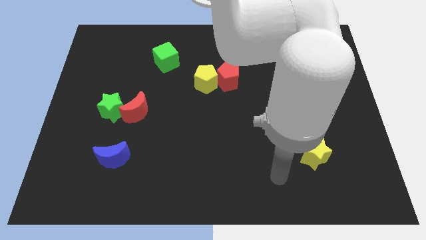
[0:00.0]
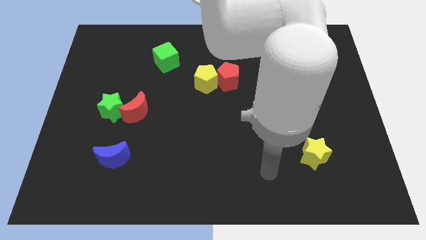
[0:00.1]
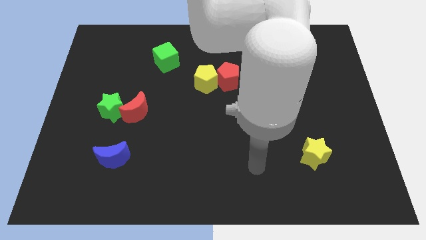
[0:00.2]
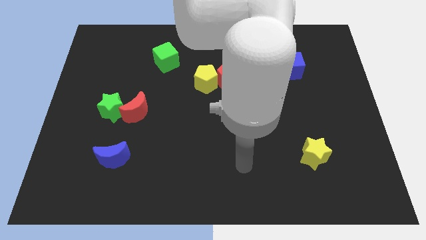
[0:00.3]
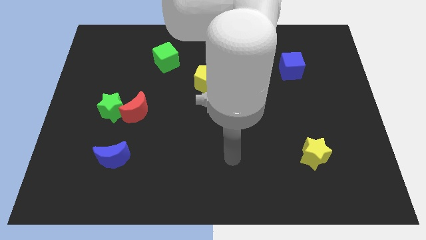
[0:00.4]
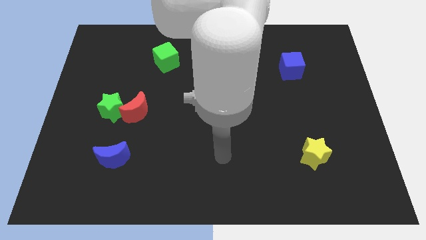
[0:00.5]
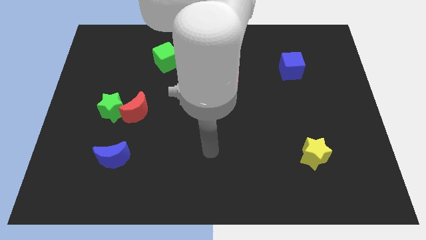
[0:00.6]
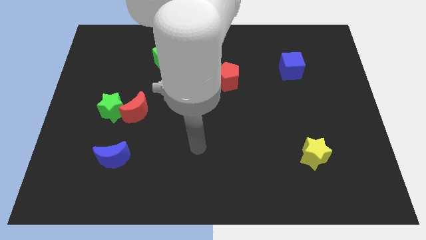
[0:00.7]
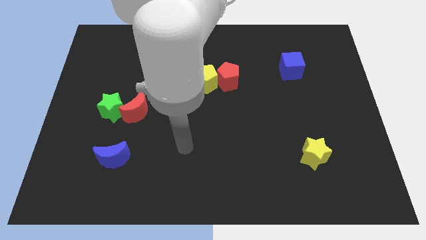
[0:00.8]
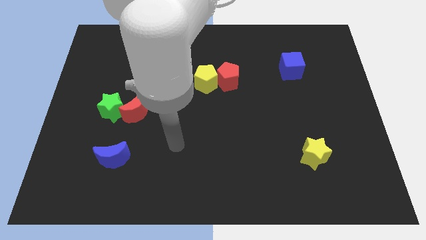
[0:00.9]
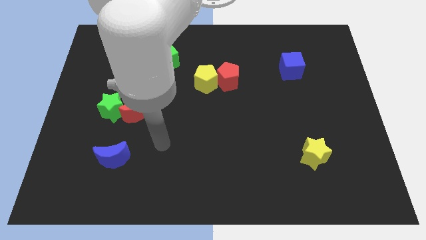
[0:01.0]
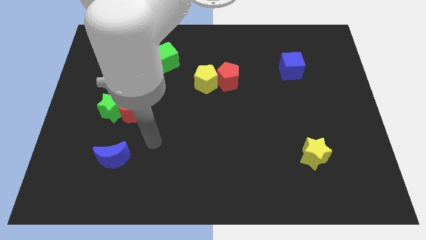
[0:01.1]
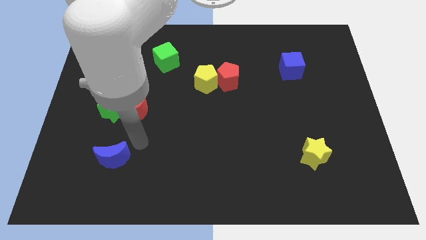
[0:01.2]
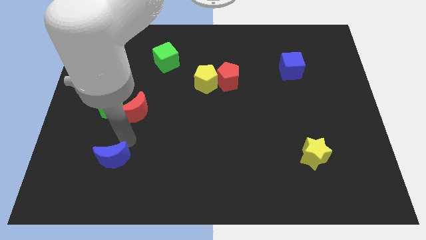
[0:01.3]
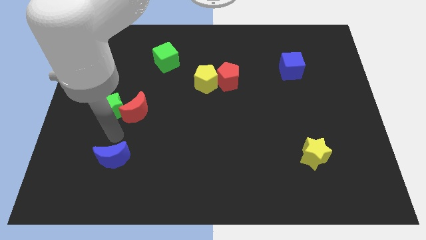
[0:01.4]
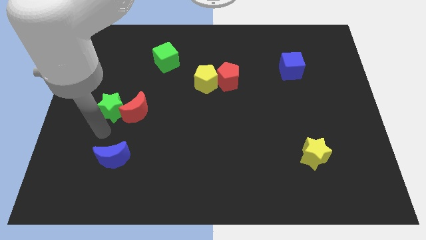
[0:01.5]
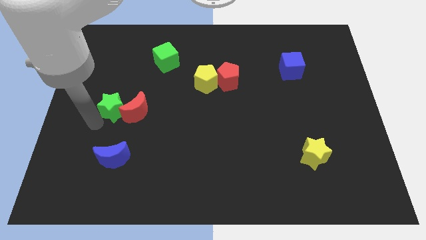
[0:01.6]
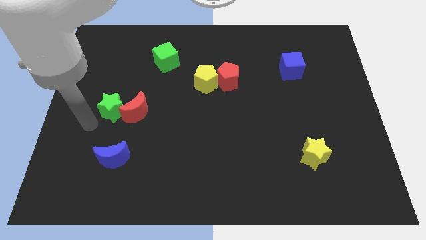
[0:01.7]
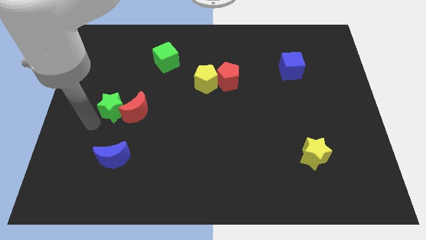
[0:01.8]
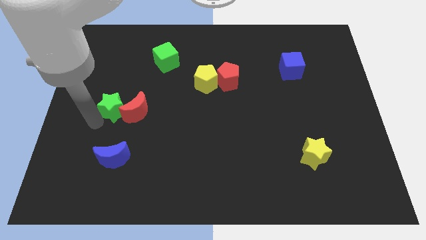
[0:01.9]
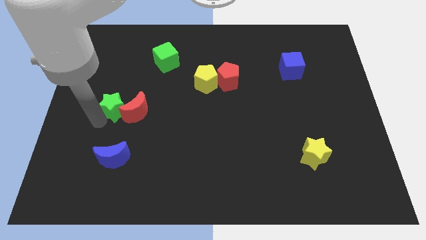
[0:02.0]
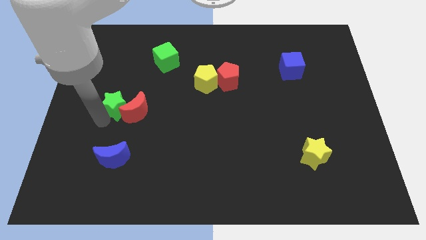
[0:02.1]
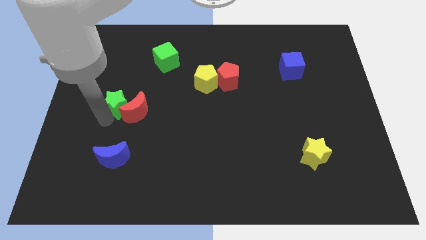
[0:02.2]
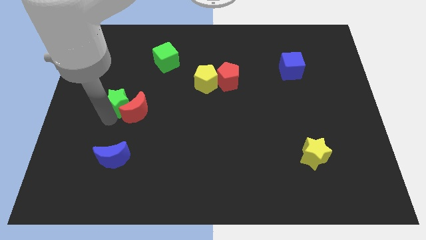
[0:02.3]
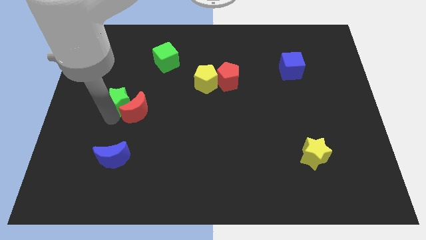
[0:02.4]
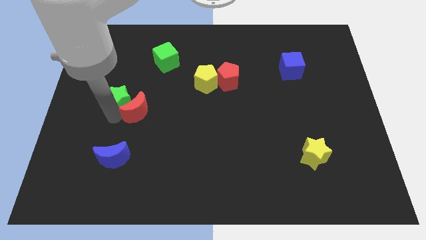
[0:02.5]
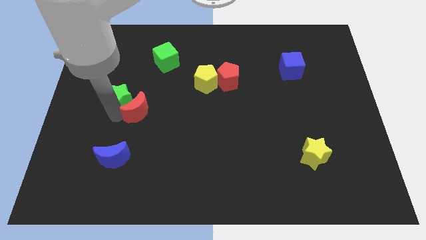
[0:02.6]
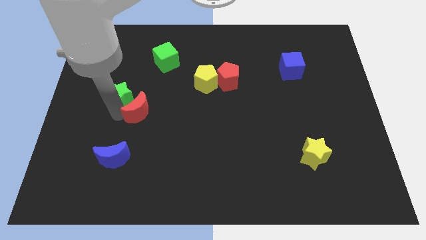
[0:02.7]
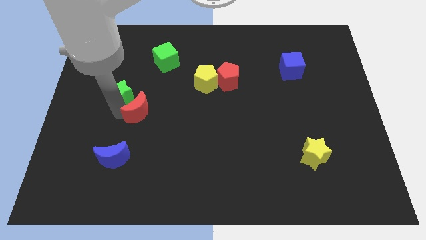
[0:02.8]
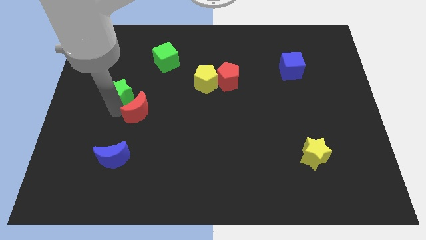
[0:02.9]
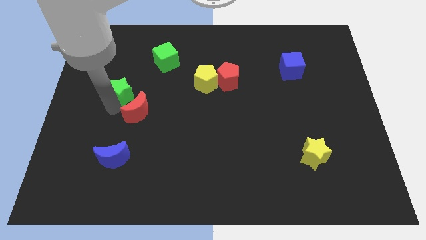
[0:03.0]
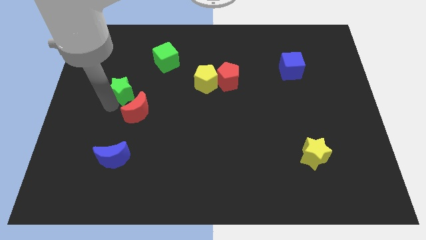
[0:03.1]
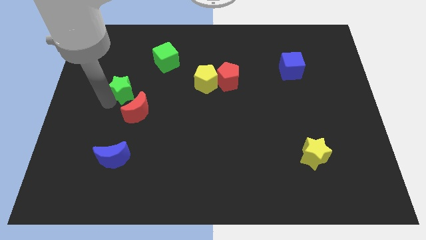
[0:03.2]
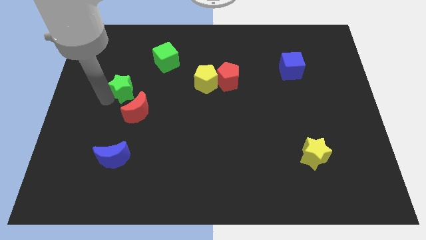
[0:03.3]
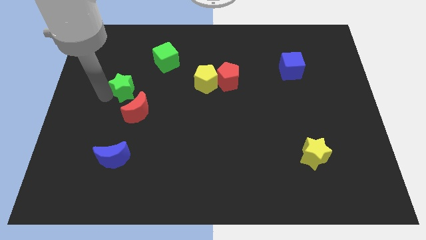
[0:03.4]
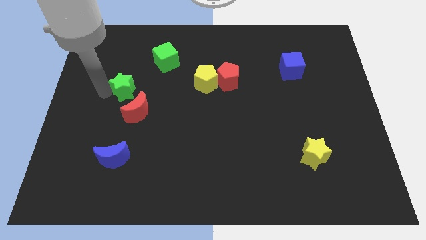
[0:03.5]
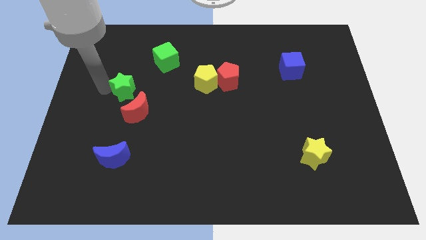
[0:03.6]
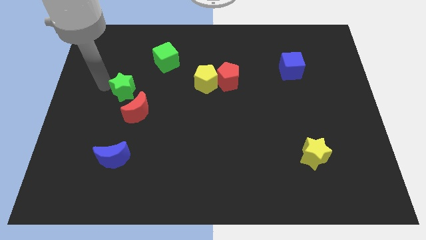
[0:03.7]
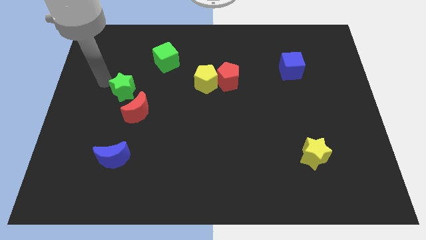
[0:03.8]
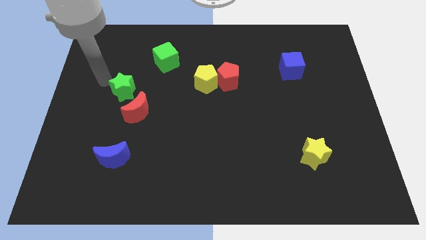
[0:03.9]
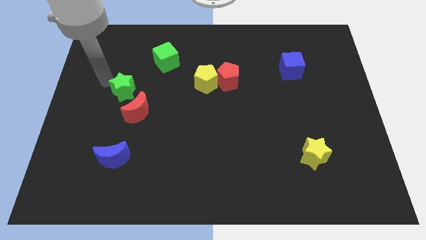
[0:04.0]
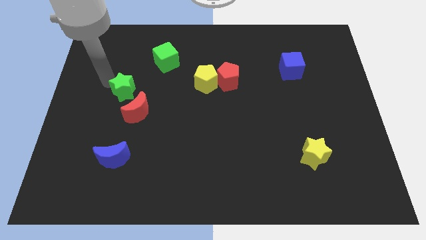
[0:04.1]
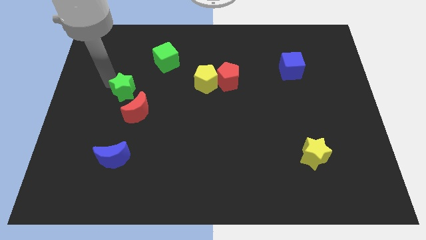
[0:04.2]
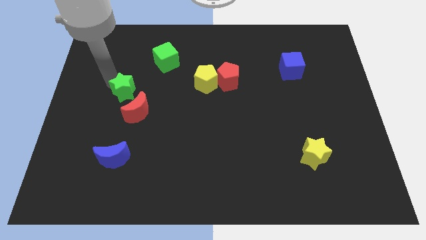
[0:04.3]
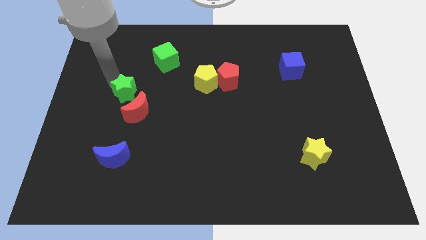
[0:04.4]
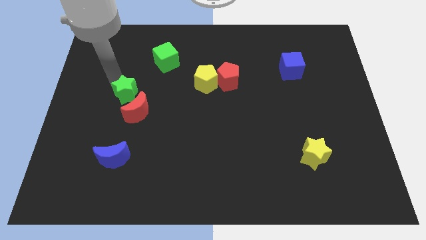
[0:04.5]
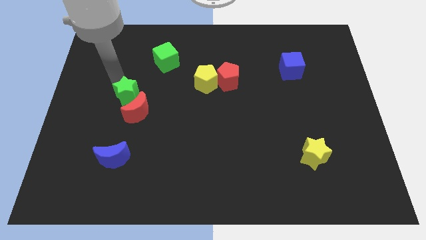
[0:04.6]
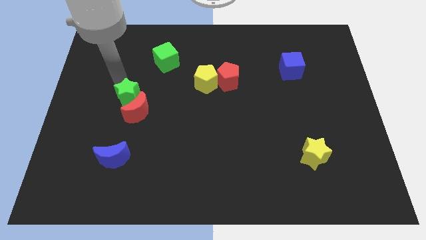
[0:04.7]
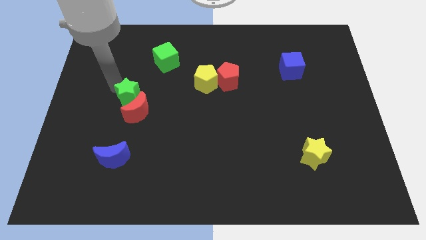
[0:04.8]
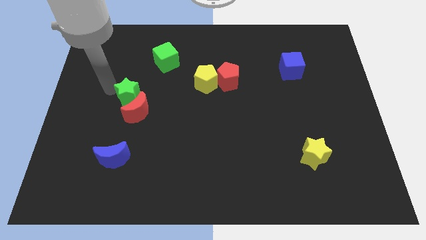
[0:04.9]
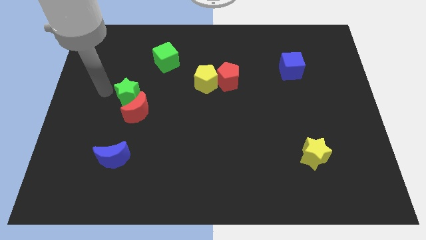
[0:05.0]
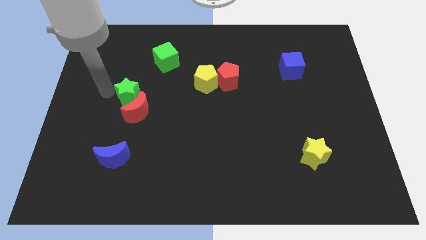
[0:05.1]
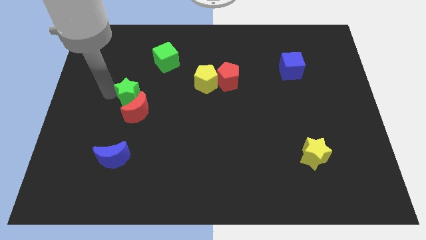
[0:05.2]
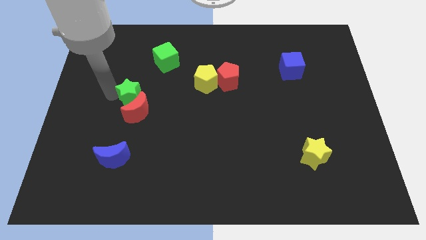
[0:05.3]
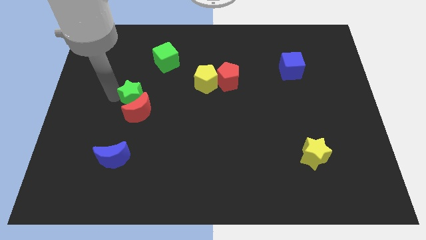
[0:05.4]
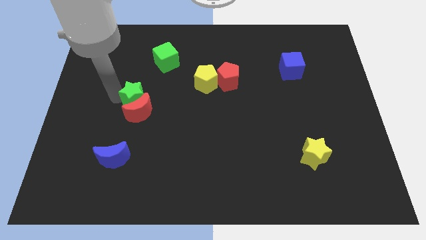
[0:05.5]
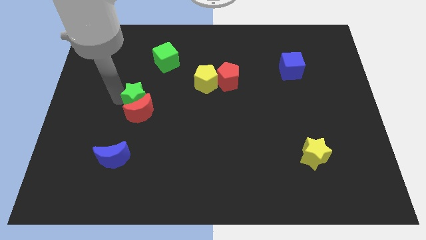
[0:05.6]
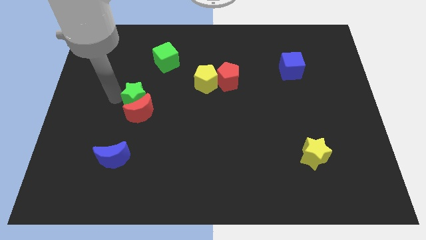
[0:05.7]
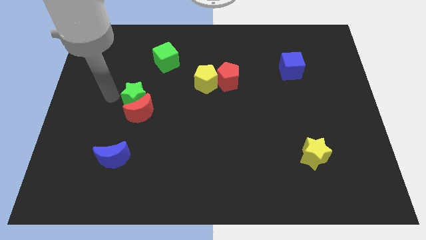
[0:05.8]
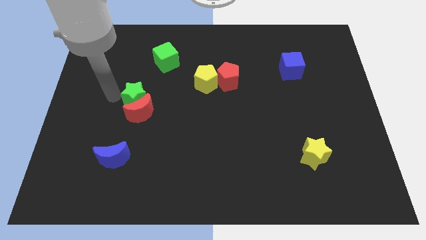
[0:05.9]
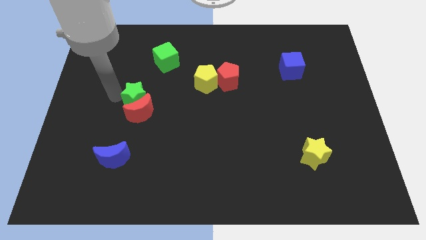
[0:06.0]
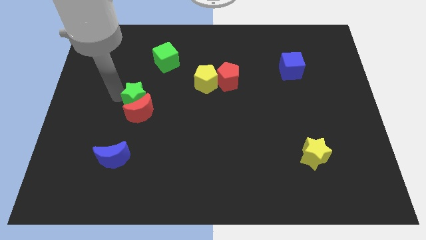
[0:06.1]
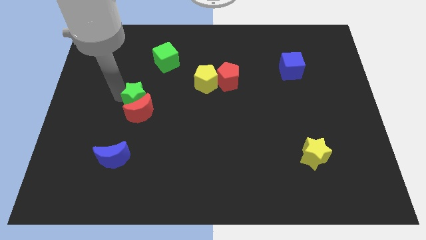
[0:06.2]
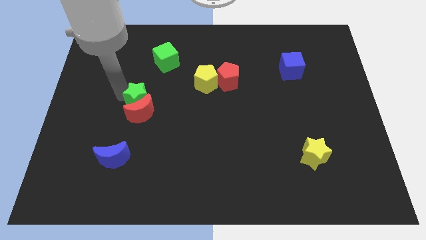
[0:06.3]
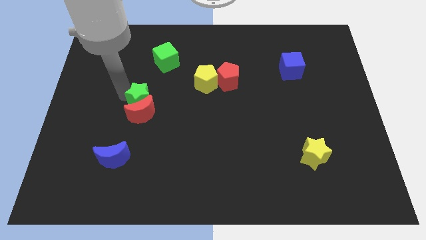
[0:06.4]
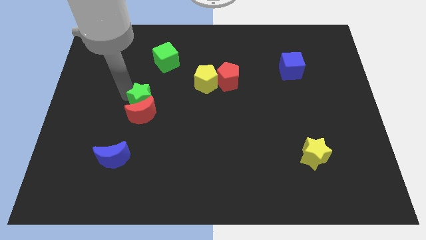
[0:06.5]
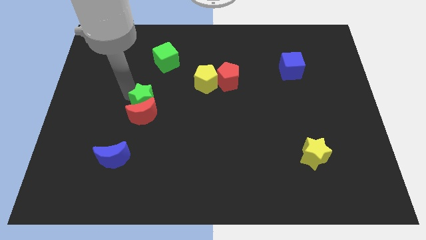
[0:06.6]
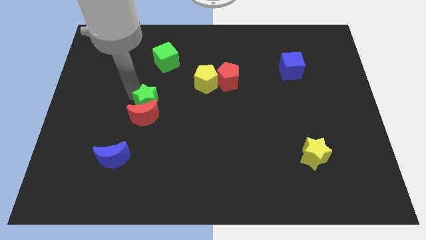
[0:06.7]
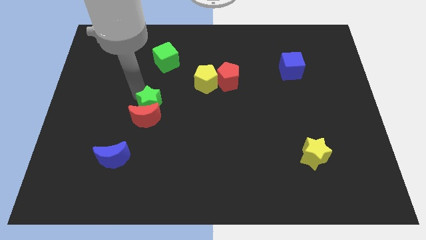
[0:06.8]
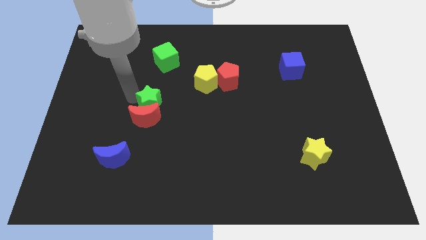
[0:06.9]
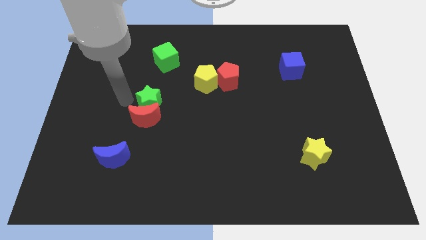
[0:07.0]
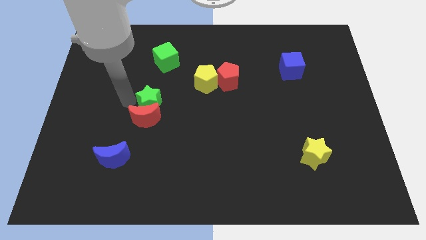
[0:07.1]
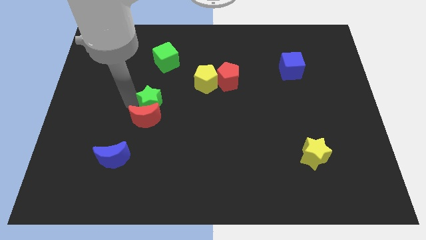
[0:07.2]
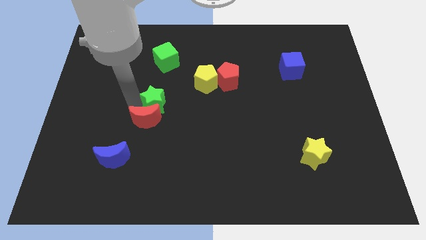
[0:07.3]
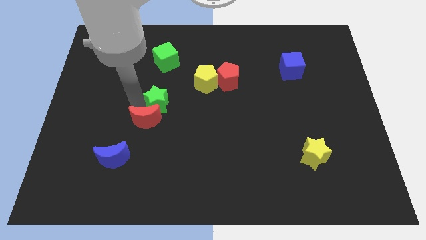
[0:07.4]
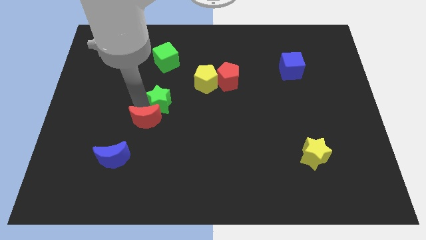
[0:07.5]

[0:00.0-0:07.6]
push the green star to the middle of the board
